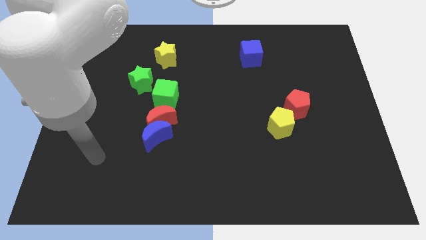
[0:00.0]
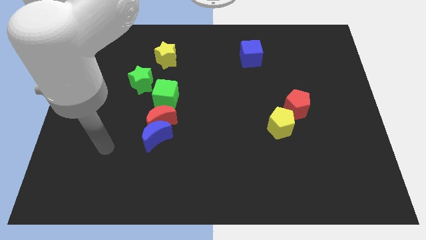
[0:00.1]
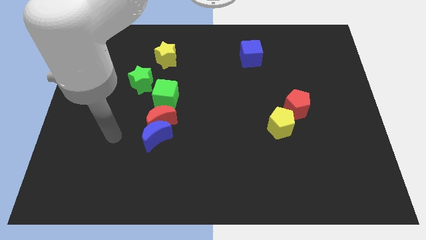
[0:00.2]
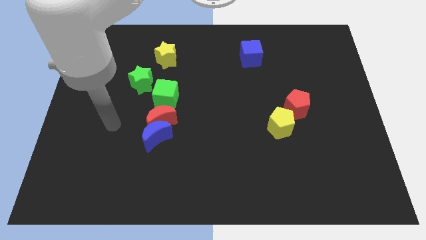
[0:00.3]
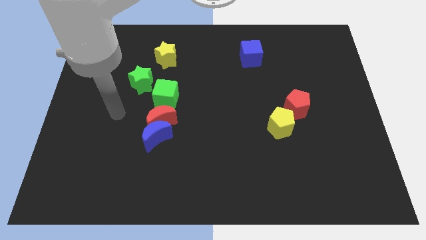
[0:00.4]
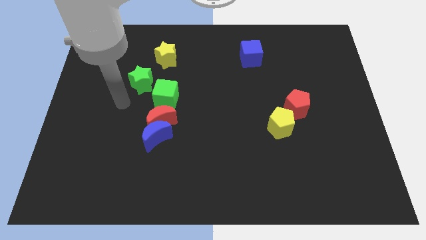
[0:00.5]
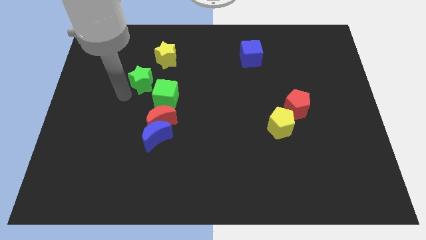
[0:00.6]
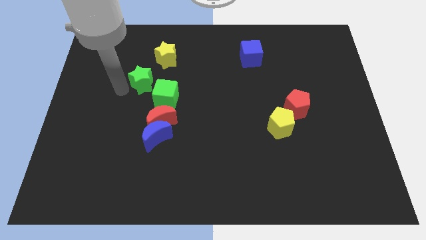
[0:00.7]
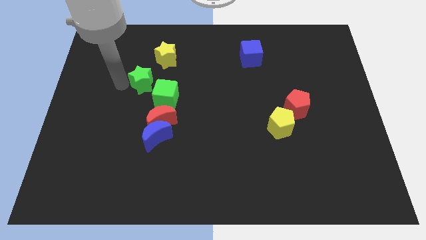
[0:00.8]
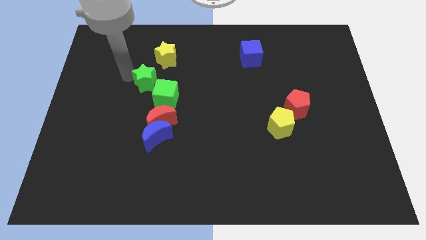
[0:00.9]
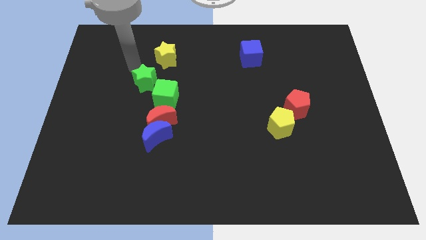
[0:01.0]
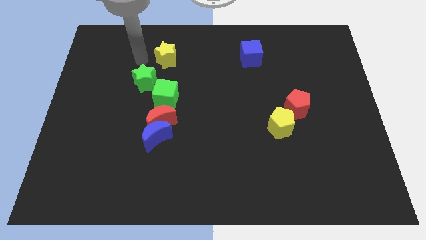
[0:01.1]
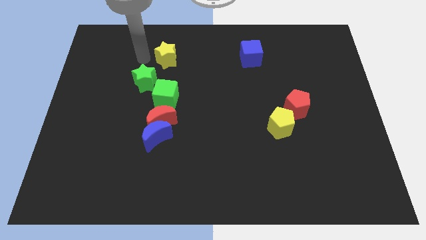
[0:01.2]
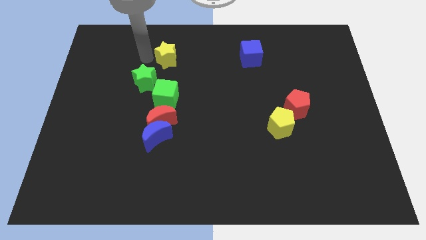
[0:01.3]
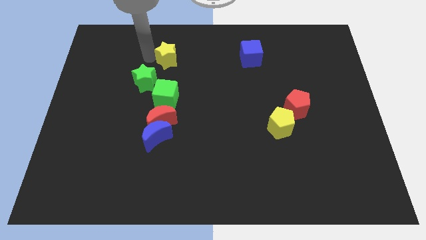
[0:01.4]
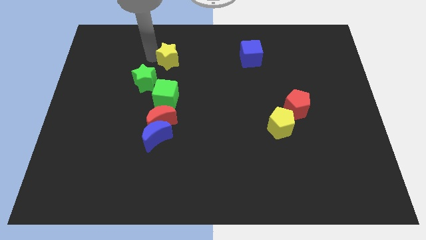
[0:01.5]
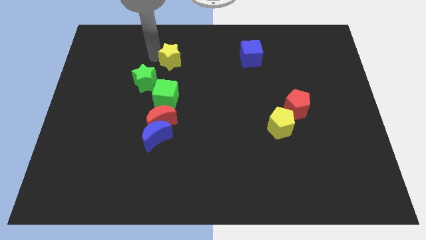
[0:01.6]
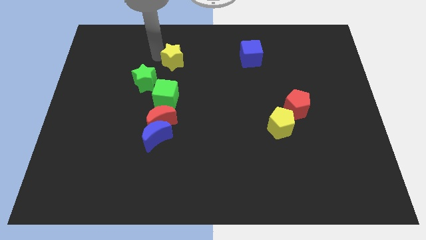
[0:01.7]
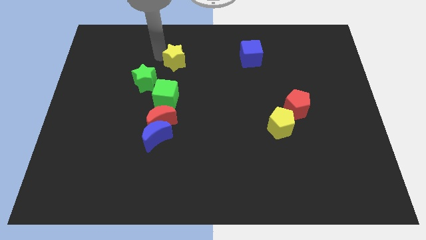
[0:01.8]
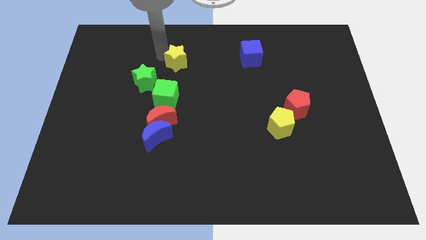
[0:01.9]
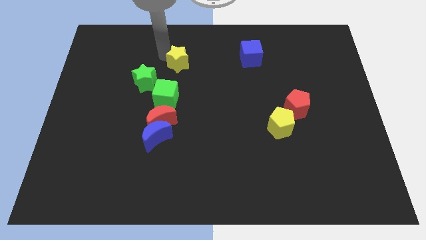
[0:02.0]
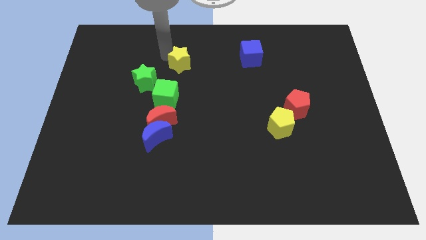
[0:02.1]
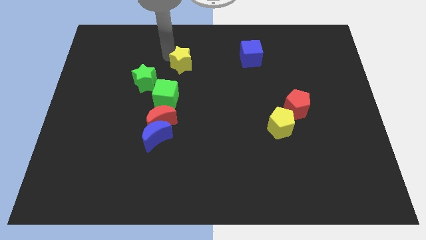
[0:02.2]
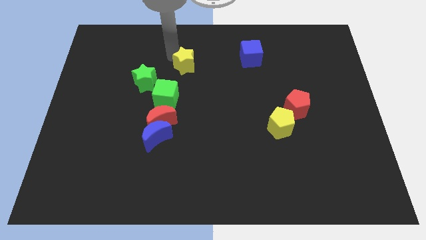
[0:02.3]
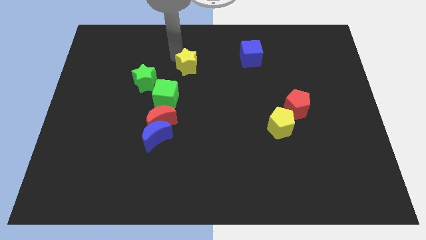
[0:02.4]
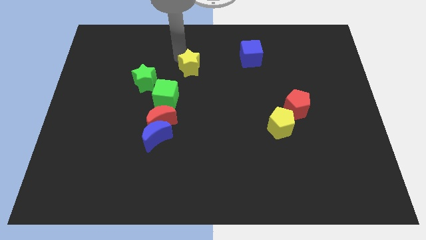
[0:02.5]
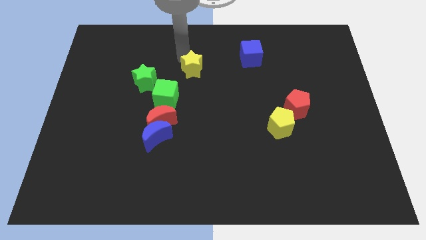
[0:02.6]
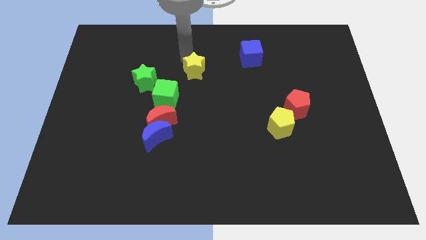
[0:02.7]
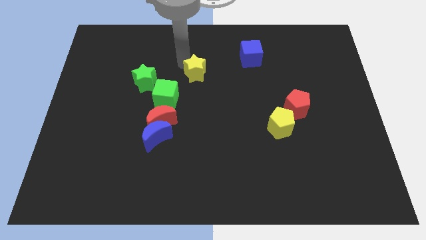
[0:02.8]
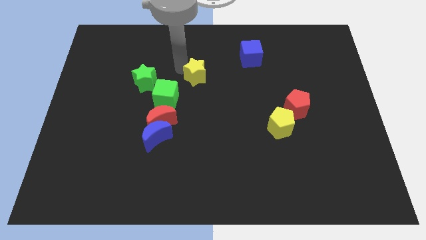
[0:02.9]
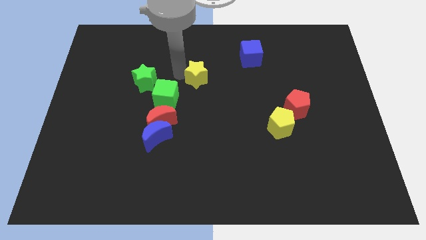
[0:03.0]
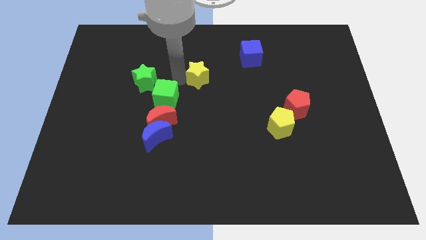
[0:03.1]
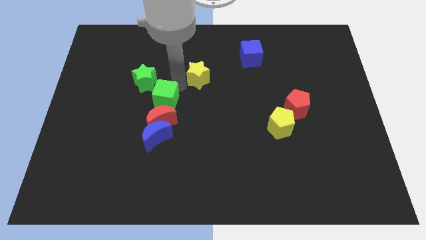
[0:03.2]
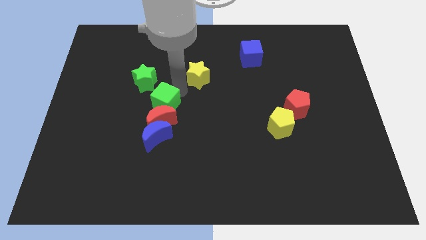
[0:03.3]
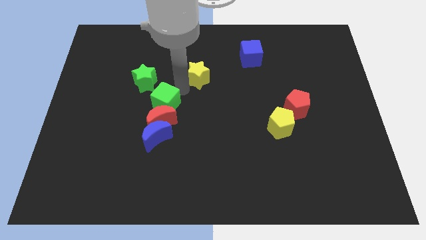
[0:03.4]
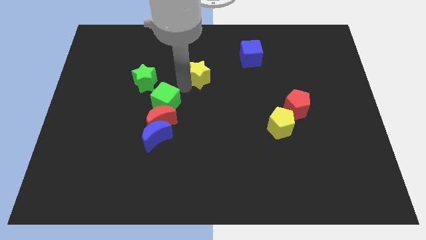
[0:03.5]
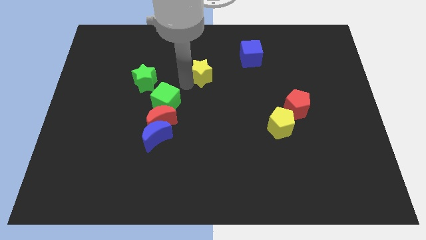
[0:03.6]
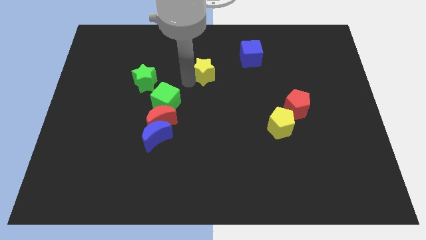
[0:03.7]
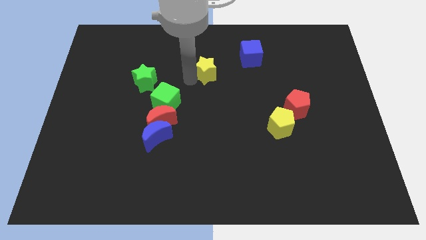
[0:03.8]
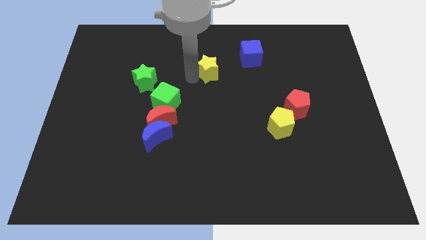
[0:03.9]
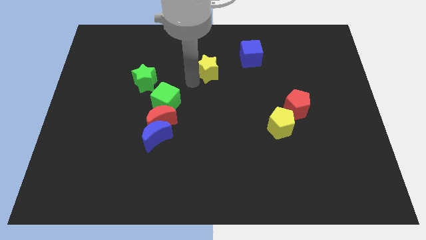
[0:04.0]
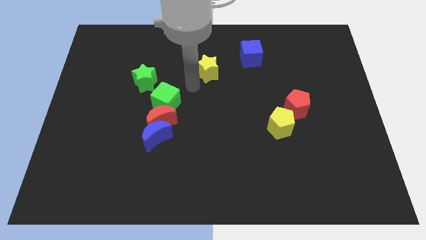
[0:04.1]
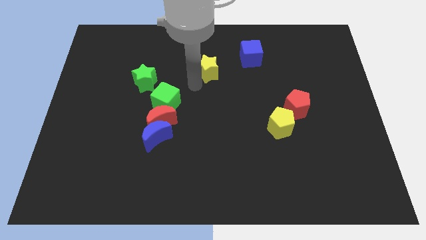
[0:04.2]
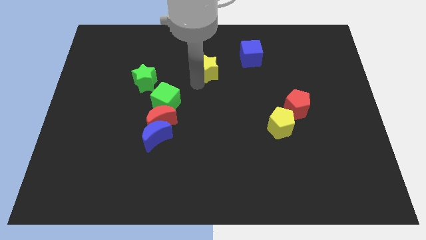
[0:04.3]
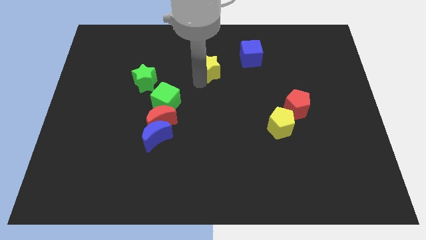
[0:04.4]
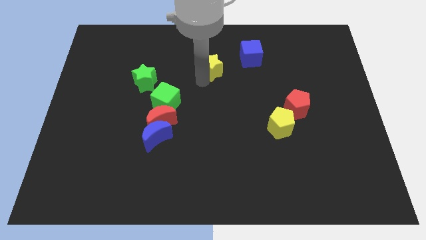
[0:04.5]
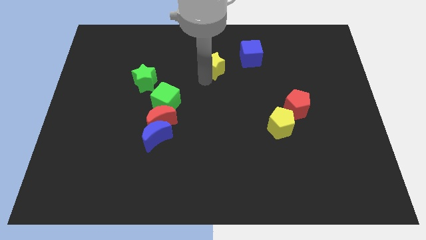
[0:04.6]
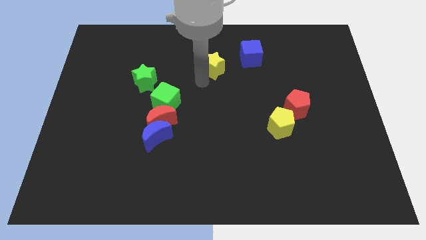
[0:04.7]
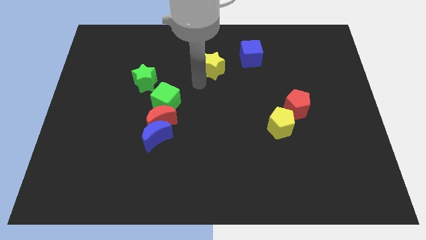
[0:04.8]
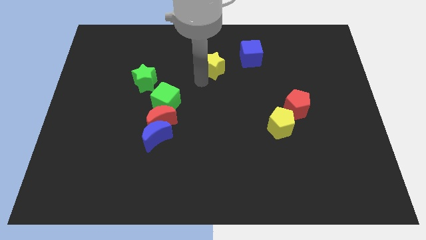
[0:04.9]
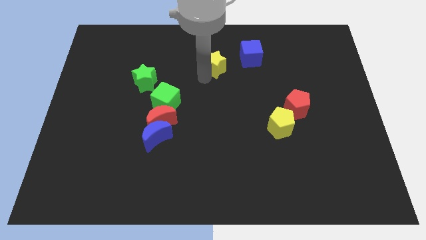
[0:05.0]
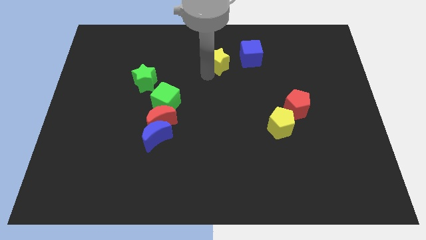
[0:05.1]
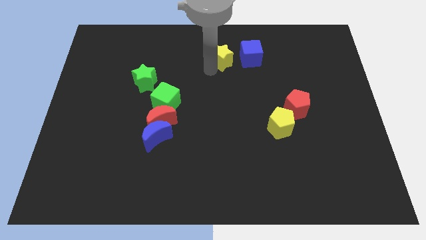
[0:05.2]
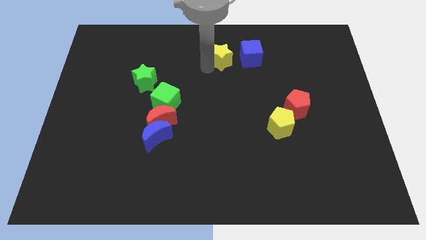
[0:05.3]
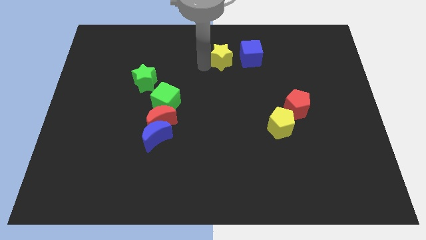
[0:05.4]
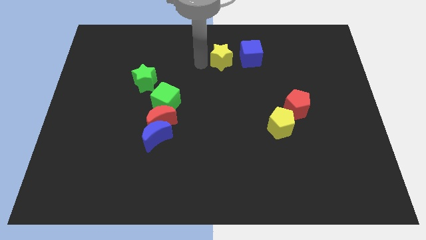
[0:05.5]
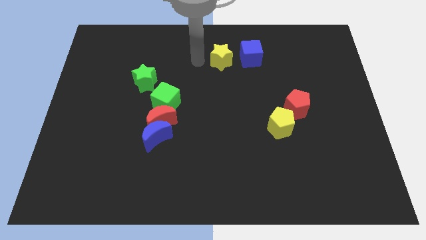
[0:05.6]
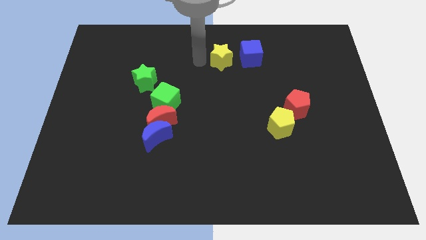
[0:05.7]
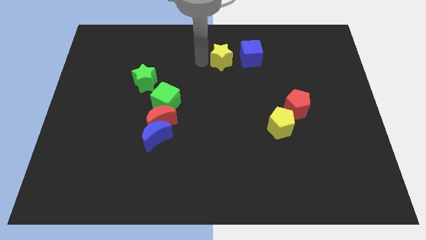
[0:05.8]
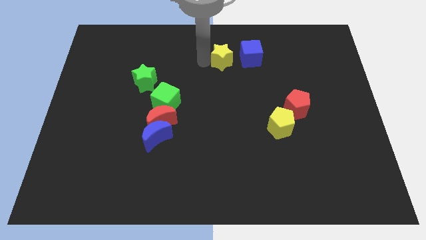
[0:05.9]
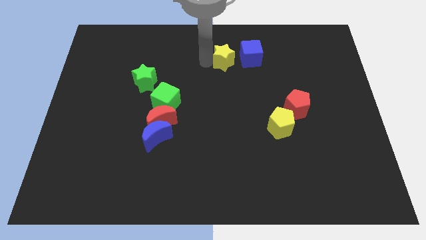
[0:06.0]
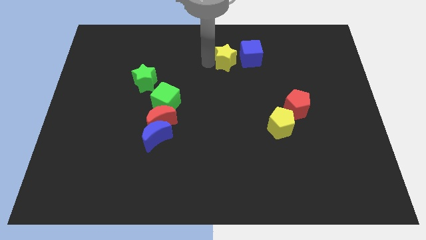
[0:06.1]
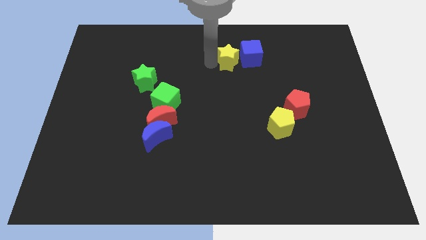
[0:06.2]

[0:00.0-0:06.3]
move the yellow star next to the blue cube

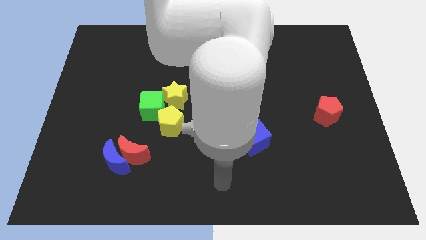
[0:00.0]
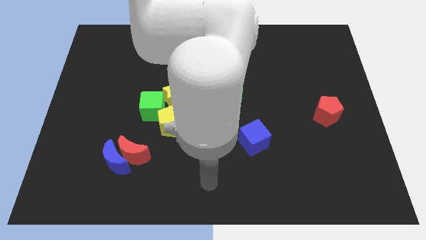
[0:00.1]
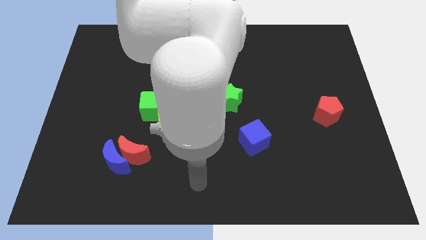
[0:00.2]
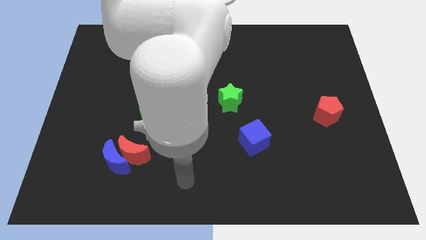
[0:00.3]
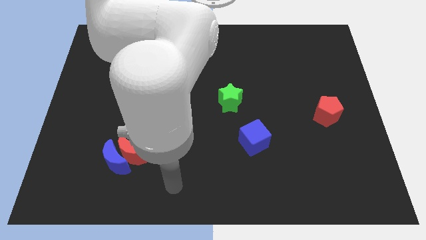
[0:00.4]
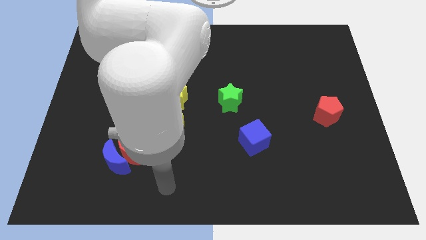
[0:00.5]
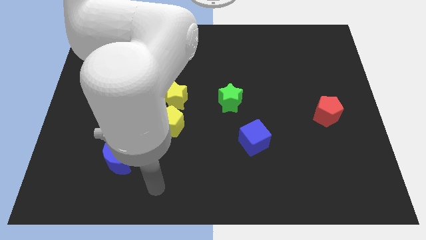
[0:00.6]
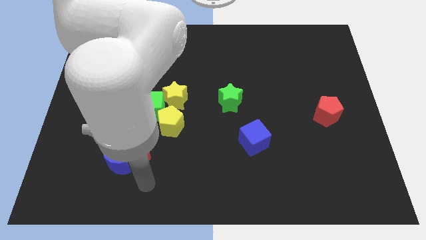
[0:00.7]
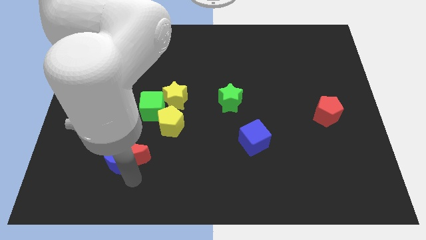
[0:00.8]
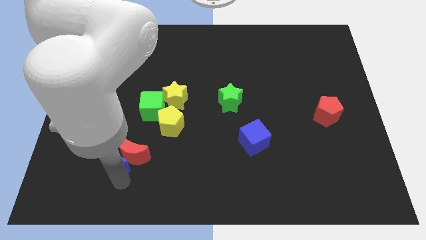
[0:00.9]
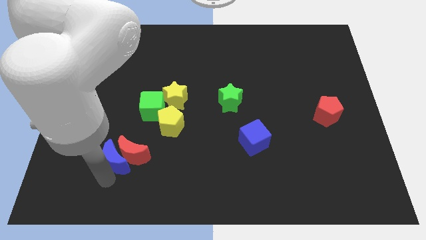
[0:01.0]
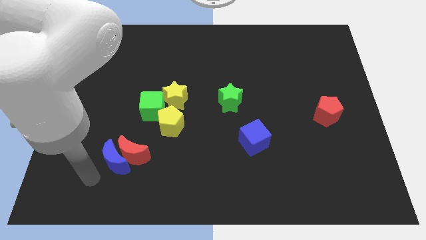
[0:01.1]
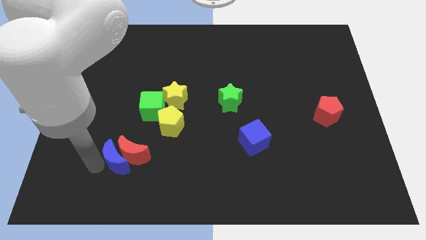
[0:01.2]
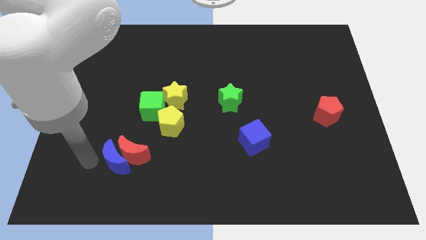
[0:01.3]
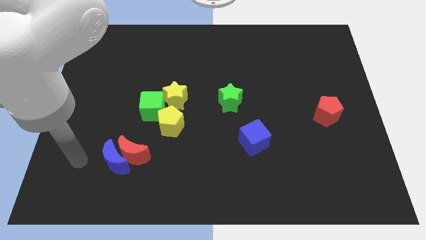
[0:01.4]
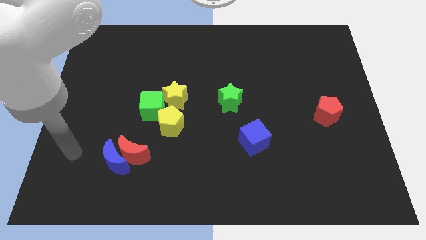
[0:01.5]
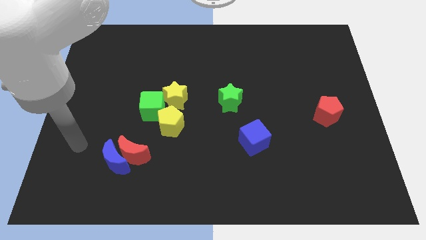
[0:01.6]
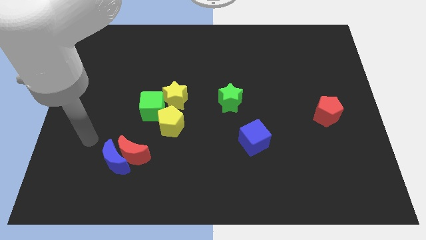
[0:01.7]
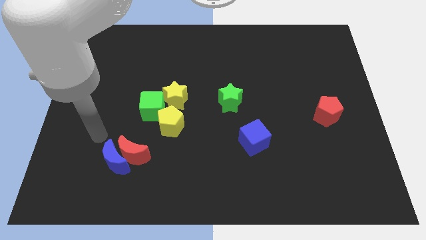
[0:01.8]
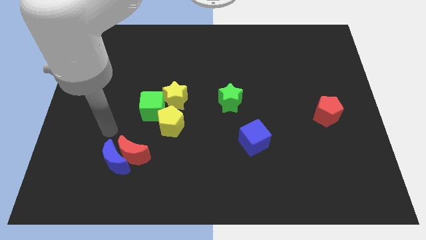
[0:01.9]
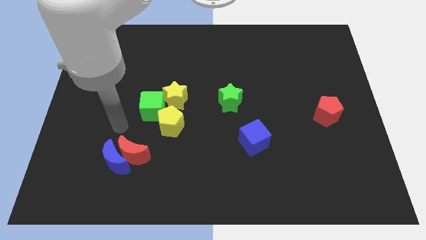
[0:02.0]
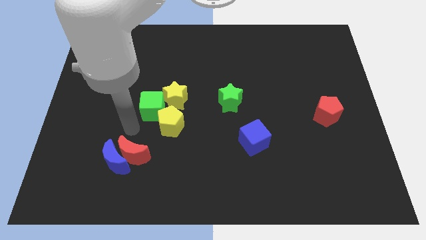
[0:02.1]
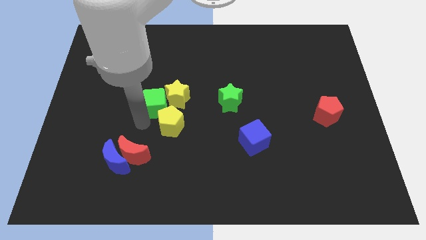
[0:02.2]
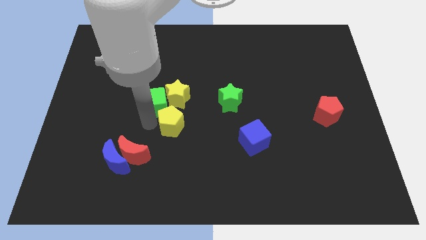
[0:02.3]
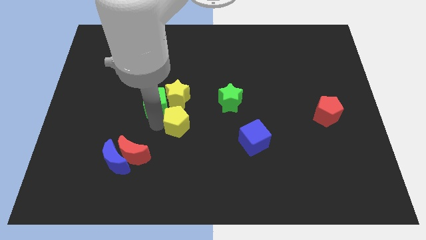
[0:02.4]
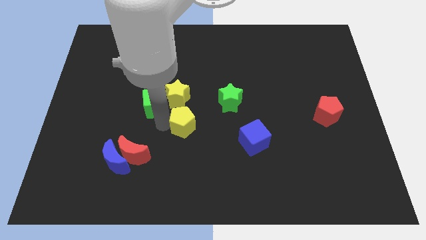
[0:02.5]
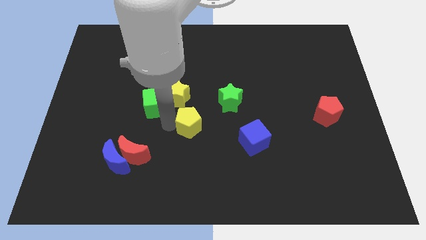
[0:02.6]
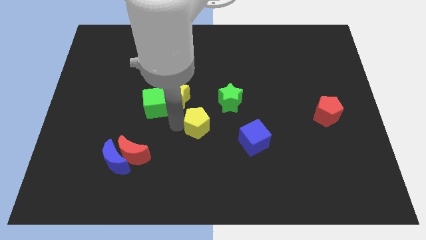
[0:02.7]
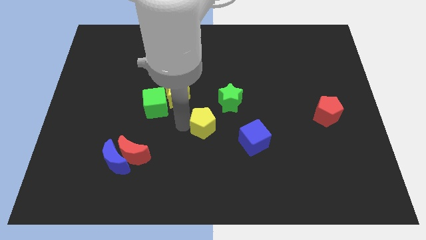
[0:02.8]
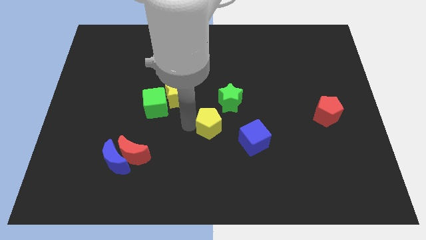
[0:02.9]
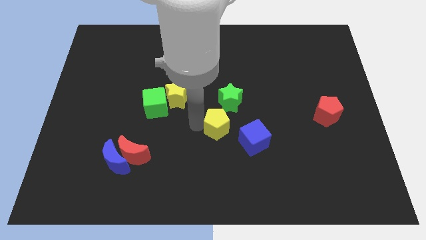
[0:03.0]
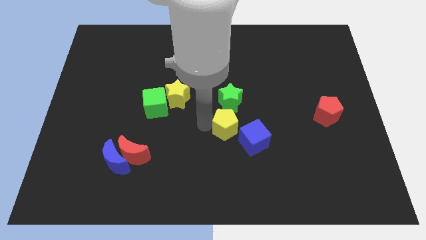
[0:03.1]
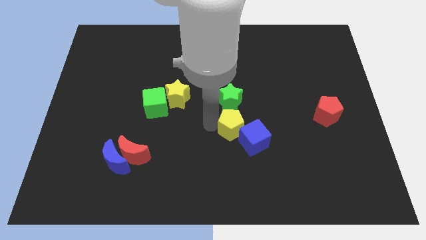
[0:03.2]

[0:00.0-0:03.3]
put the yellow pentagon next to the blue cube
